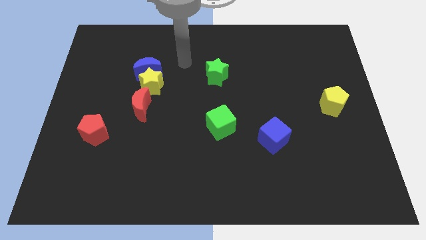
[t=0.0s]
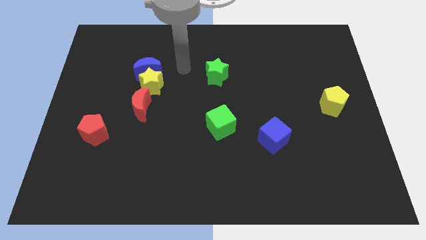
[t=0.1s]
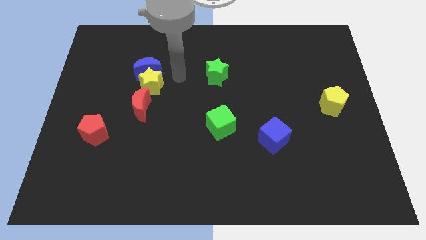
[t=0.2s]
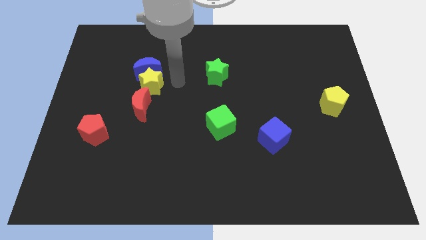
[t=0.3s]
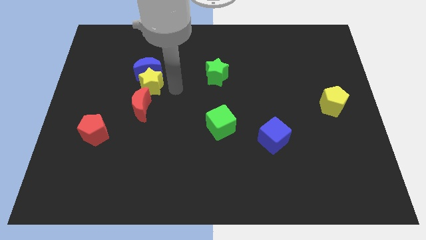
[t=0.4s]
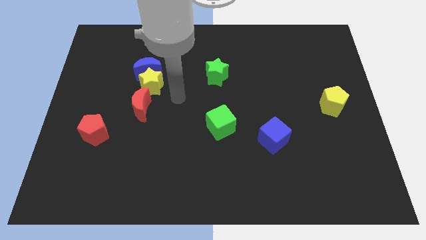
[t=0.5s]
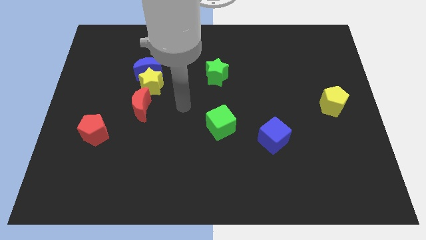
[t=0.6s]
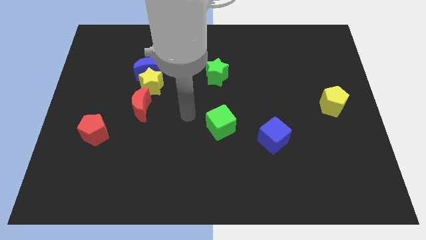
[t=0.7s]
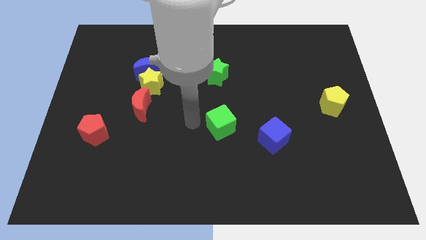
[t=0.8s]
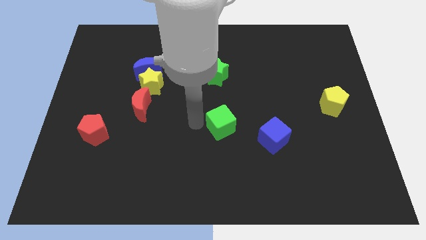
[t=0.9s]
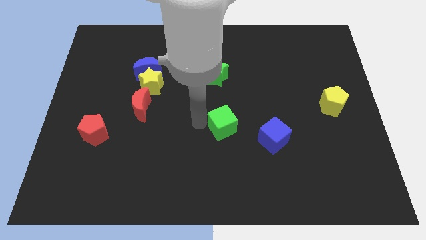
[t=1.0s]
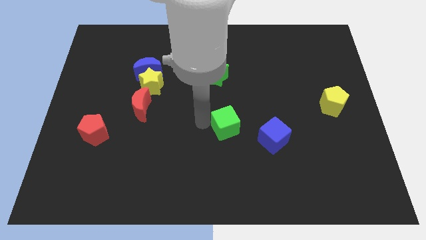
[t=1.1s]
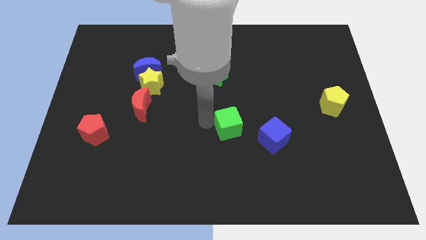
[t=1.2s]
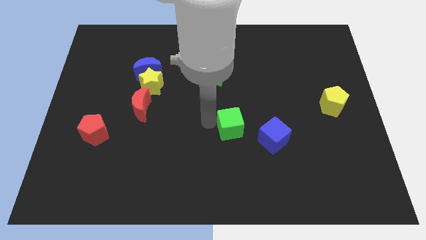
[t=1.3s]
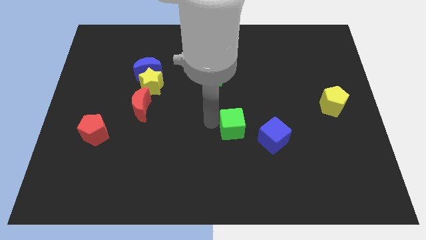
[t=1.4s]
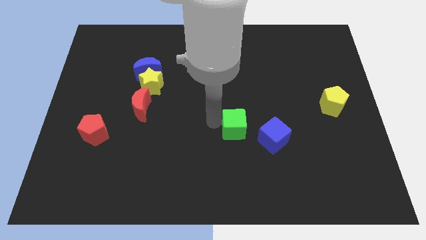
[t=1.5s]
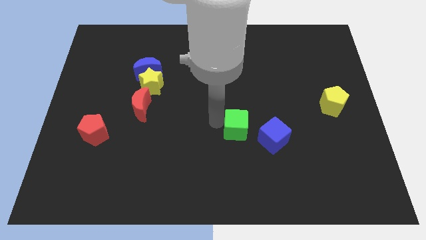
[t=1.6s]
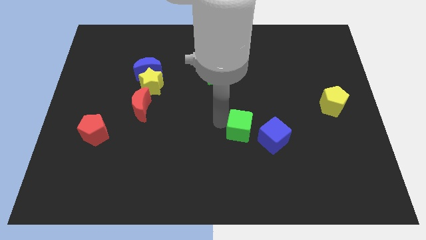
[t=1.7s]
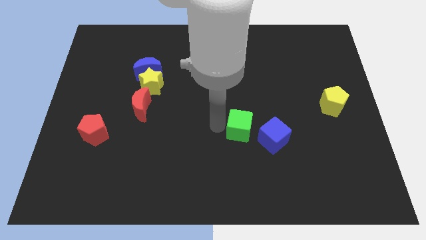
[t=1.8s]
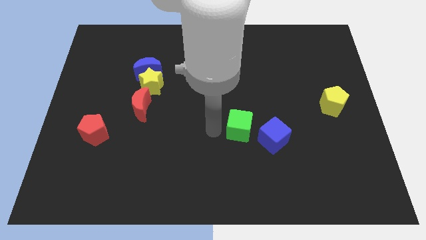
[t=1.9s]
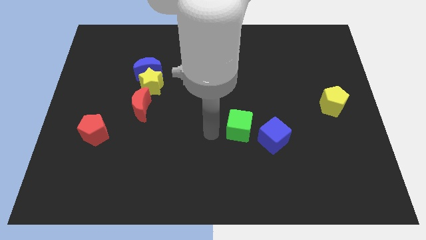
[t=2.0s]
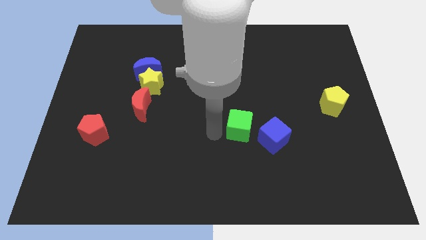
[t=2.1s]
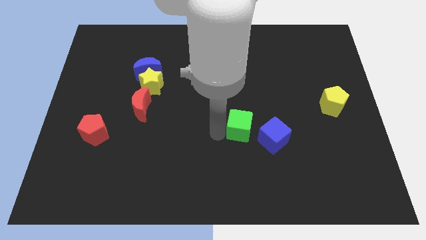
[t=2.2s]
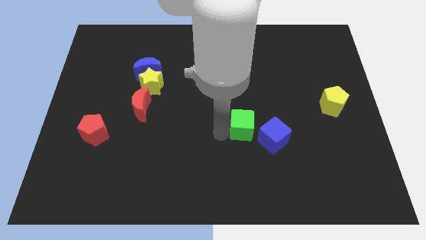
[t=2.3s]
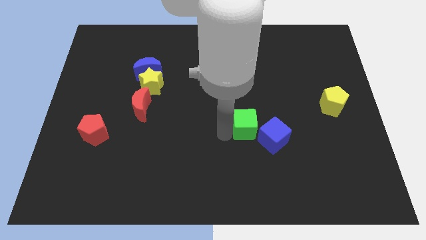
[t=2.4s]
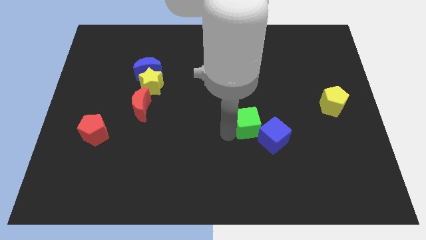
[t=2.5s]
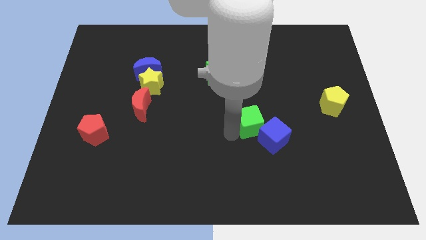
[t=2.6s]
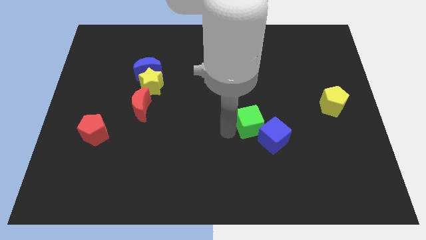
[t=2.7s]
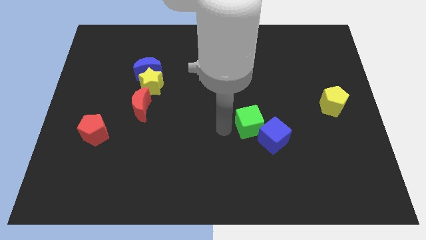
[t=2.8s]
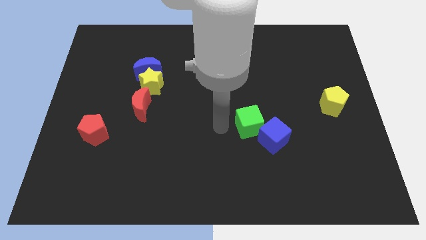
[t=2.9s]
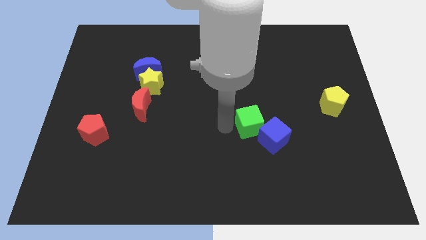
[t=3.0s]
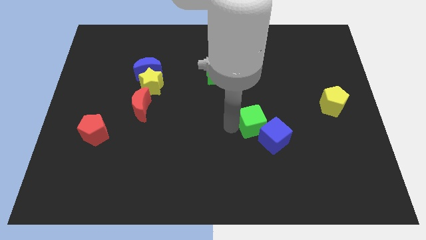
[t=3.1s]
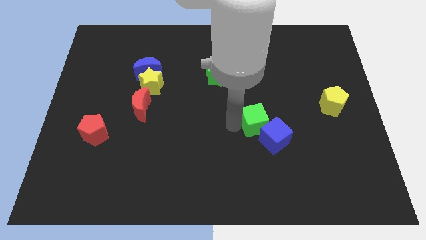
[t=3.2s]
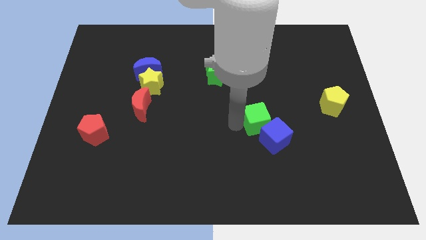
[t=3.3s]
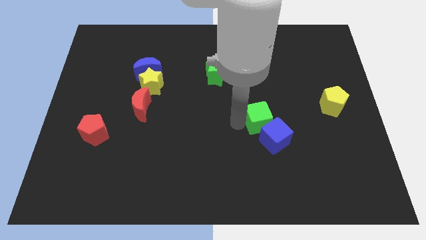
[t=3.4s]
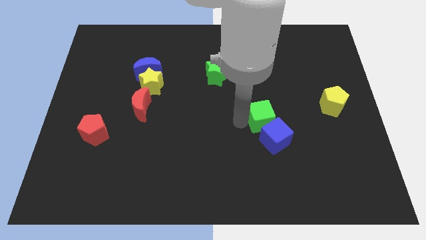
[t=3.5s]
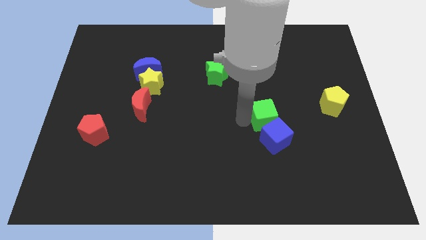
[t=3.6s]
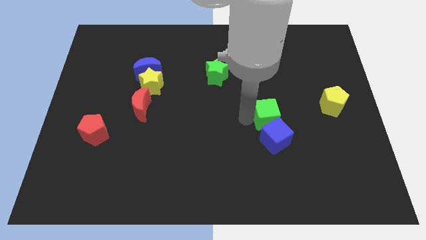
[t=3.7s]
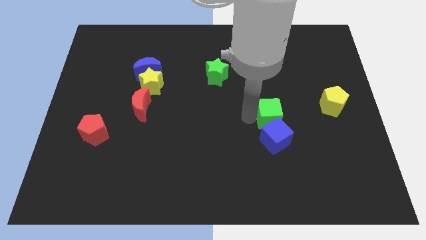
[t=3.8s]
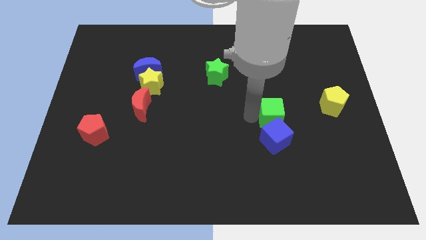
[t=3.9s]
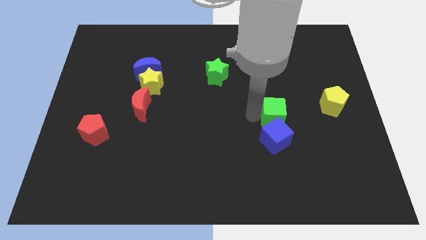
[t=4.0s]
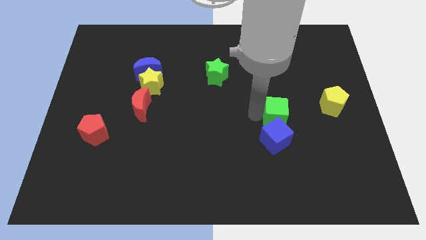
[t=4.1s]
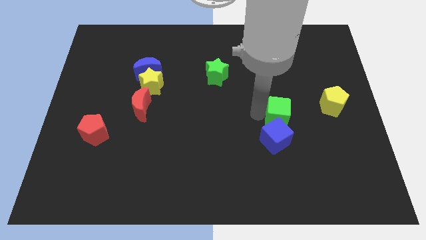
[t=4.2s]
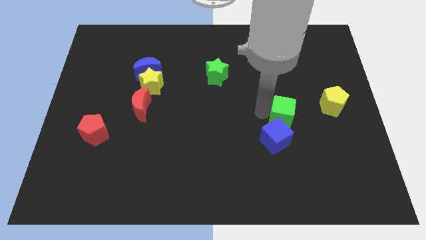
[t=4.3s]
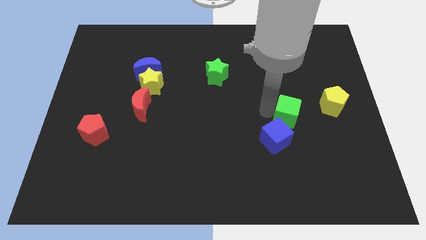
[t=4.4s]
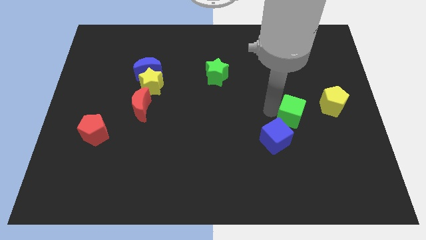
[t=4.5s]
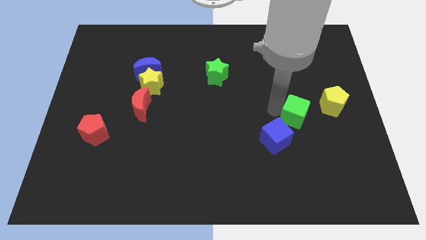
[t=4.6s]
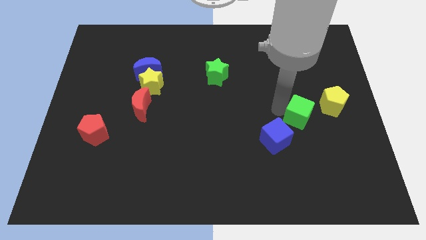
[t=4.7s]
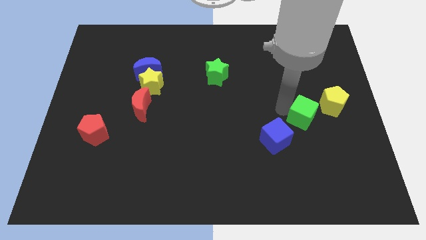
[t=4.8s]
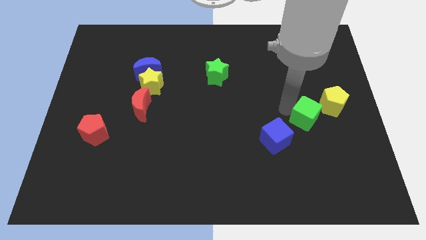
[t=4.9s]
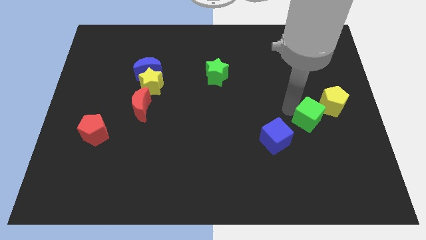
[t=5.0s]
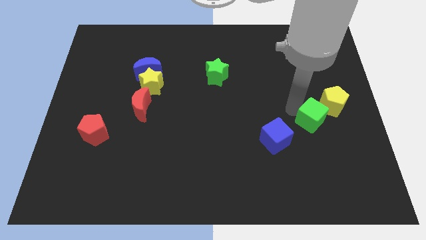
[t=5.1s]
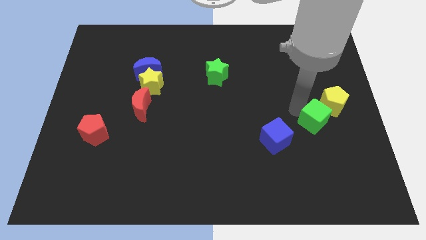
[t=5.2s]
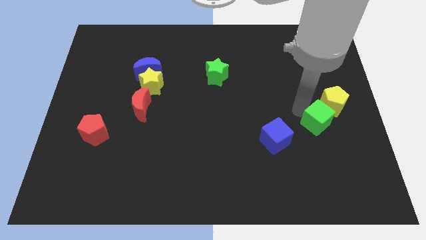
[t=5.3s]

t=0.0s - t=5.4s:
slide the green cube right of the blue cube

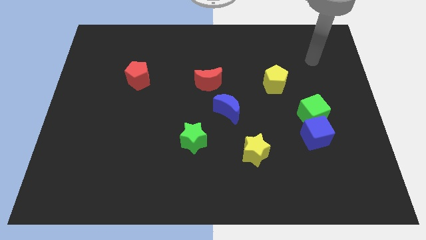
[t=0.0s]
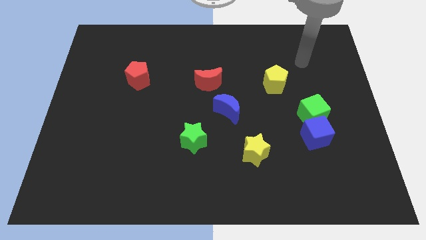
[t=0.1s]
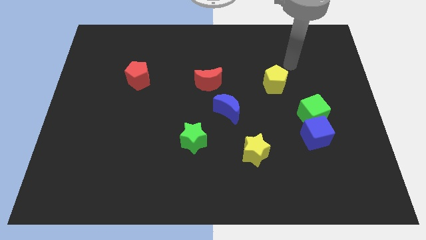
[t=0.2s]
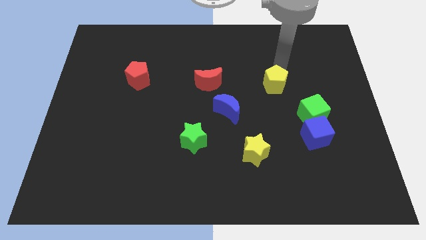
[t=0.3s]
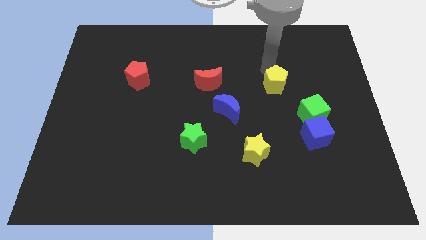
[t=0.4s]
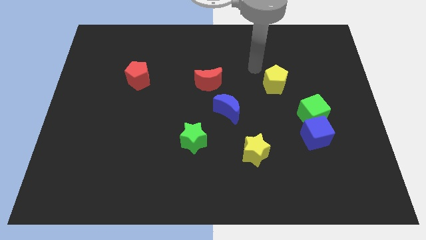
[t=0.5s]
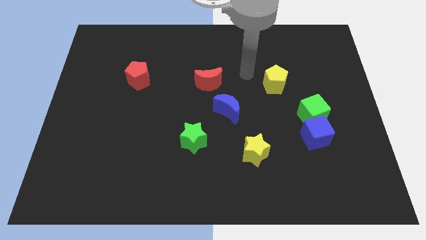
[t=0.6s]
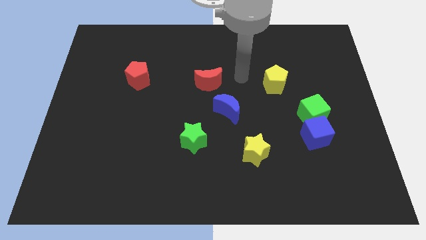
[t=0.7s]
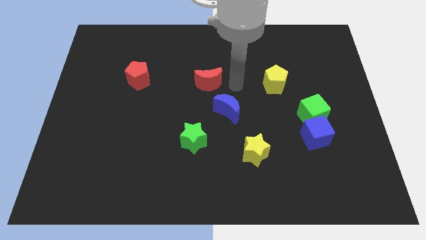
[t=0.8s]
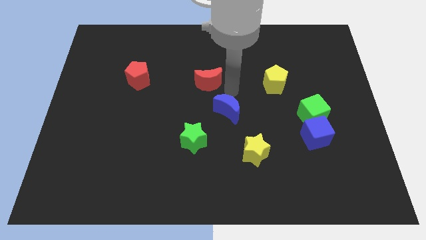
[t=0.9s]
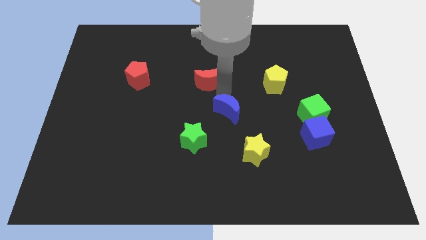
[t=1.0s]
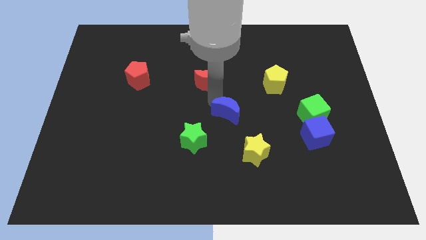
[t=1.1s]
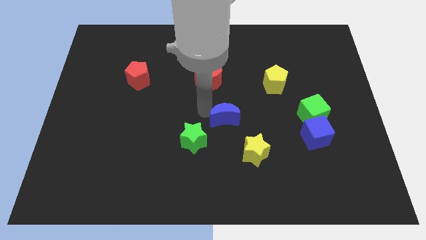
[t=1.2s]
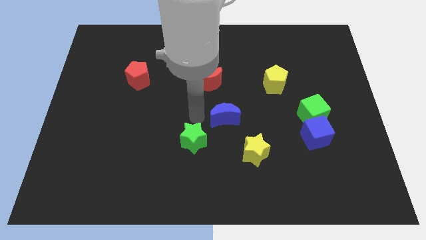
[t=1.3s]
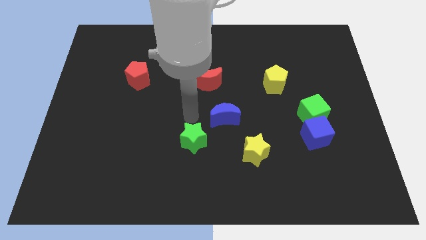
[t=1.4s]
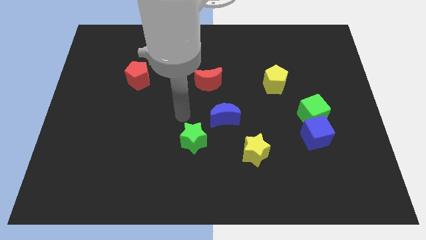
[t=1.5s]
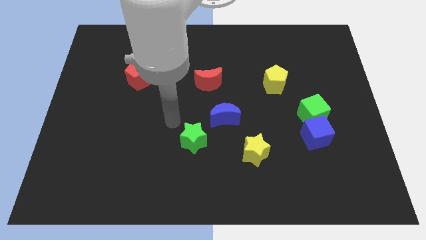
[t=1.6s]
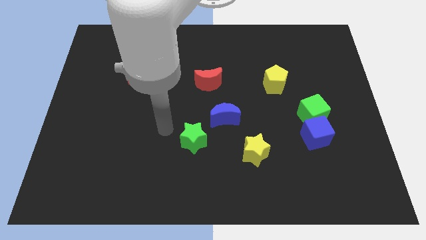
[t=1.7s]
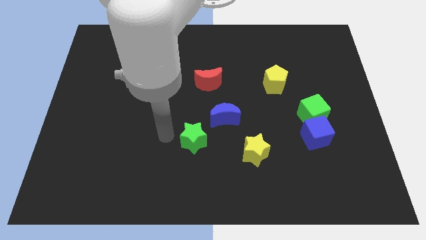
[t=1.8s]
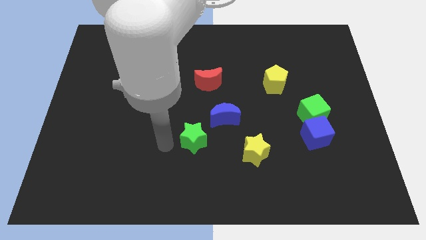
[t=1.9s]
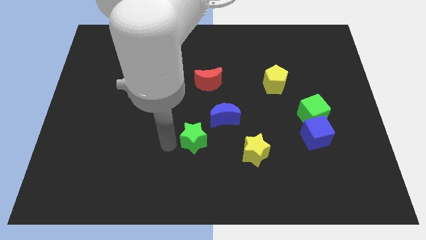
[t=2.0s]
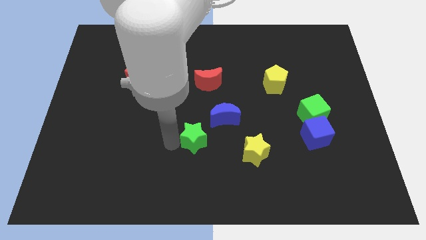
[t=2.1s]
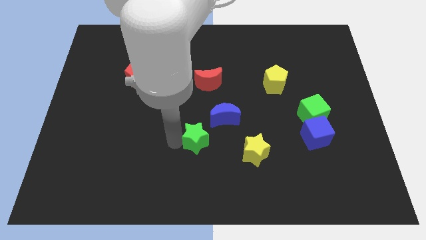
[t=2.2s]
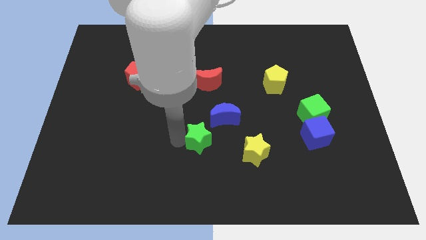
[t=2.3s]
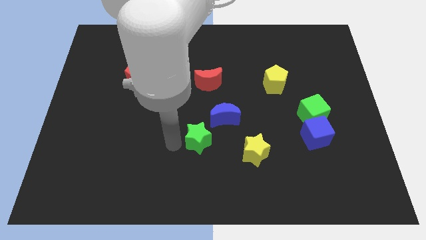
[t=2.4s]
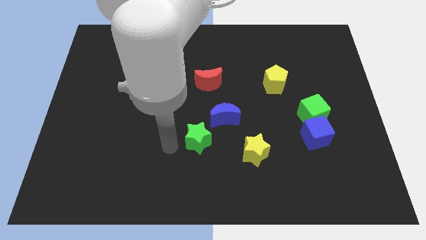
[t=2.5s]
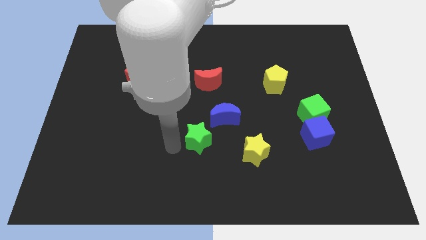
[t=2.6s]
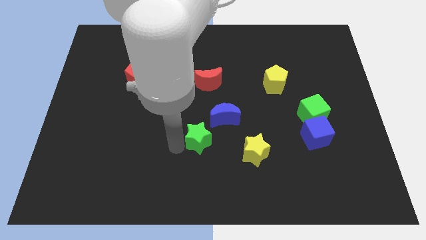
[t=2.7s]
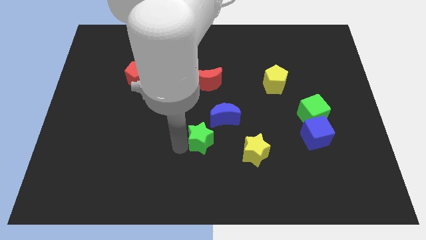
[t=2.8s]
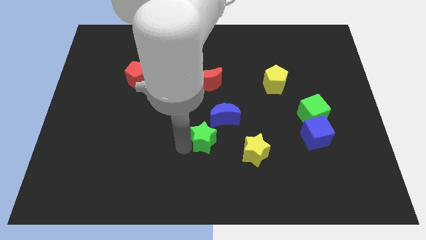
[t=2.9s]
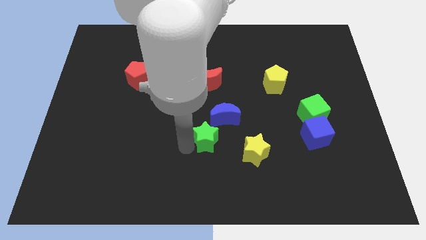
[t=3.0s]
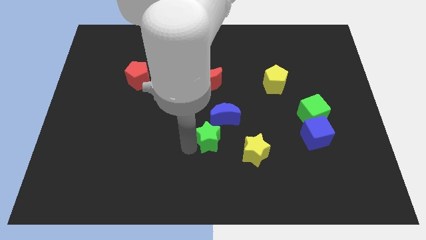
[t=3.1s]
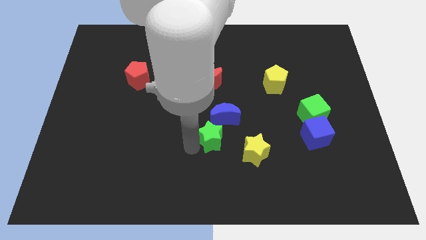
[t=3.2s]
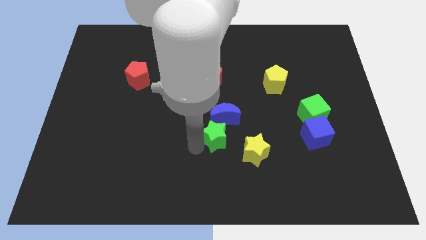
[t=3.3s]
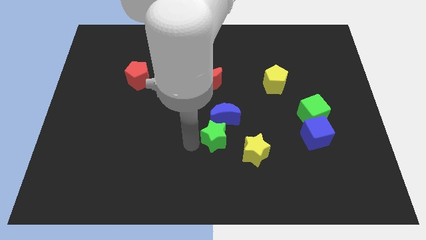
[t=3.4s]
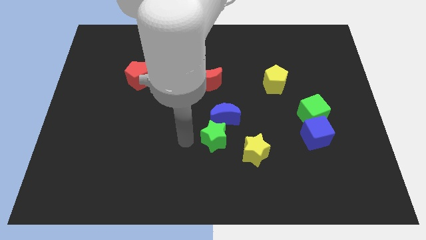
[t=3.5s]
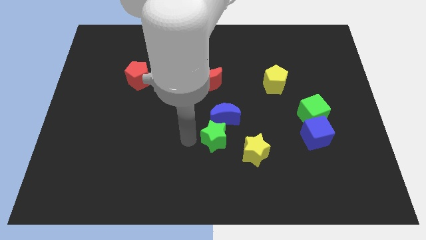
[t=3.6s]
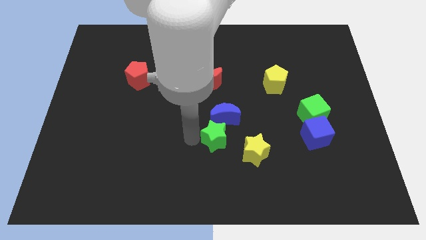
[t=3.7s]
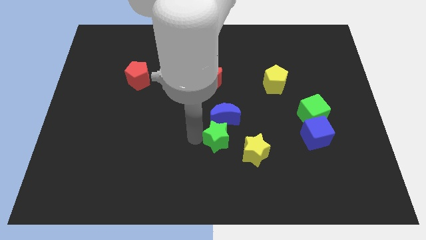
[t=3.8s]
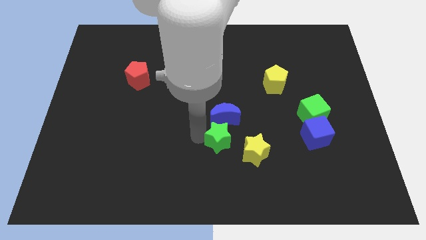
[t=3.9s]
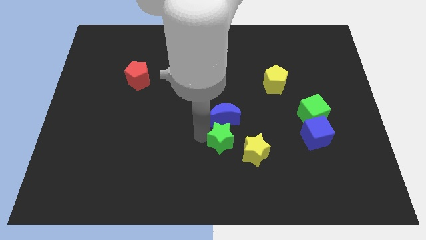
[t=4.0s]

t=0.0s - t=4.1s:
put the green star to the bottom right of the blue moon
